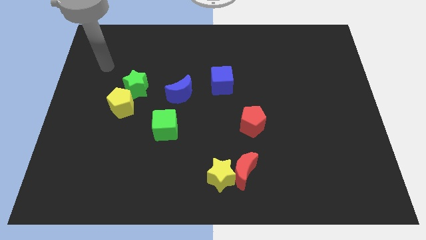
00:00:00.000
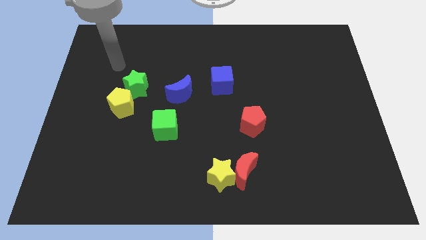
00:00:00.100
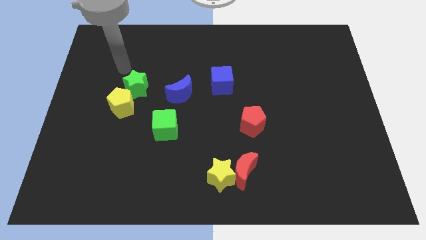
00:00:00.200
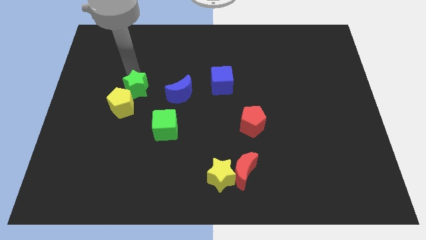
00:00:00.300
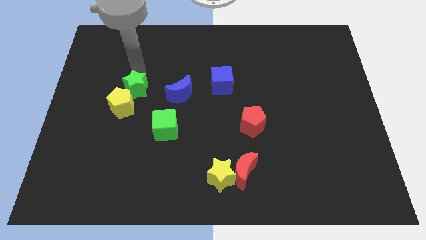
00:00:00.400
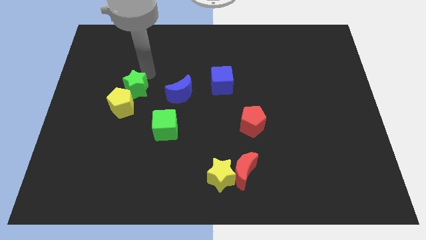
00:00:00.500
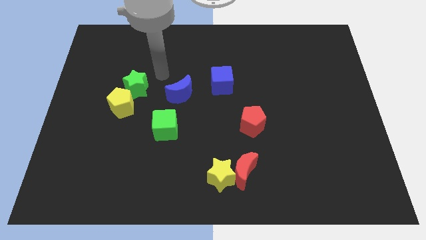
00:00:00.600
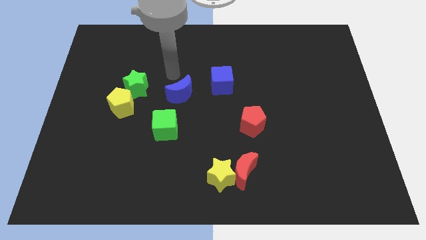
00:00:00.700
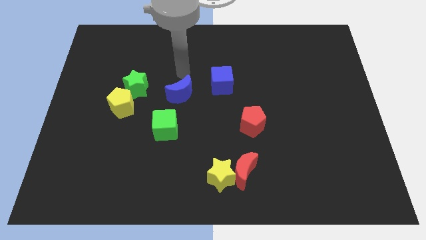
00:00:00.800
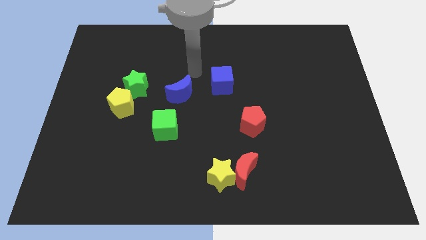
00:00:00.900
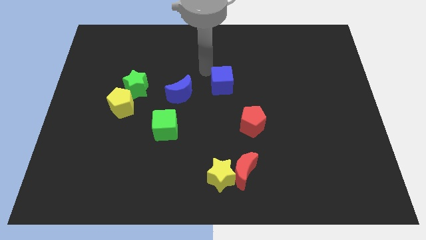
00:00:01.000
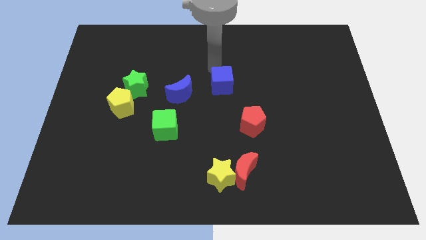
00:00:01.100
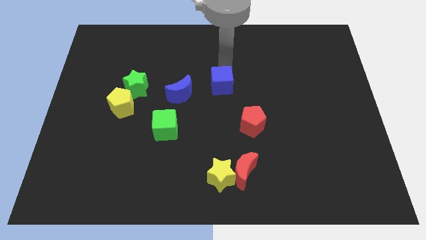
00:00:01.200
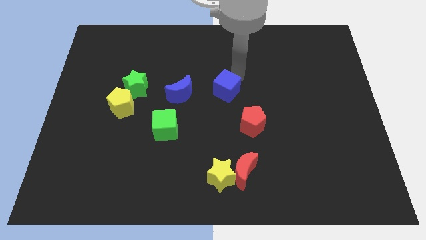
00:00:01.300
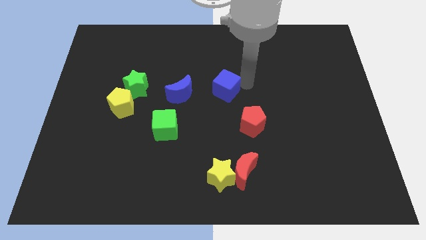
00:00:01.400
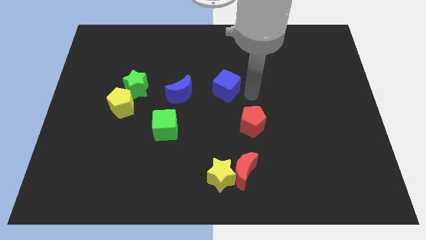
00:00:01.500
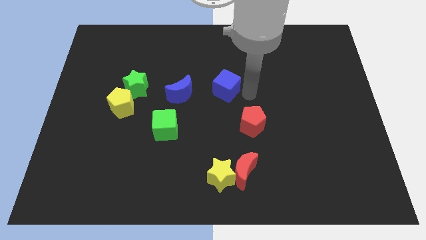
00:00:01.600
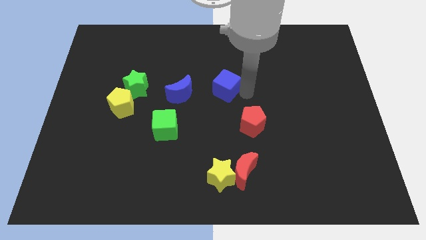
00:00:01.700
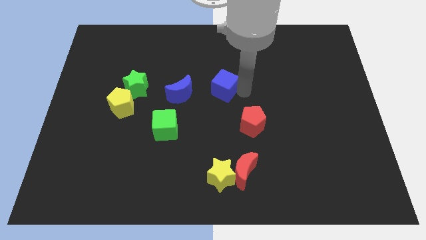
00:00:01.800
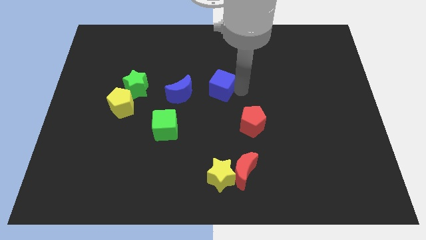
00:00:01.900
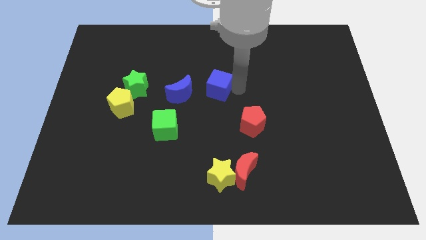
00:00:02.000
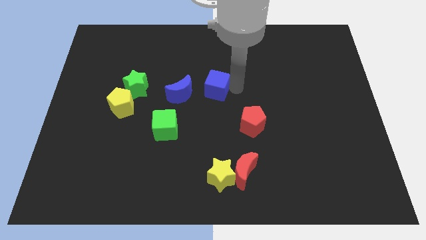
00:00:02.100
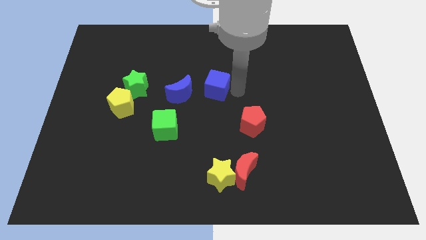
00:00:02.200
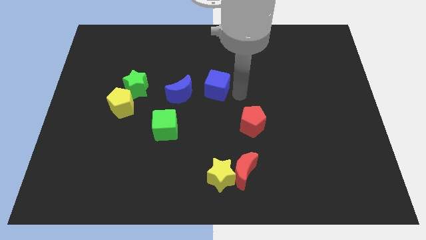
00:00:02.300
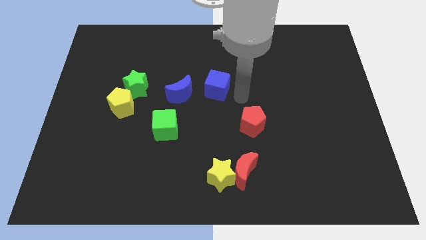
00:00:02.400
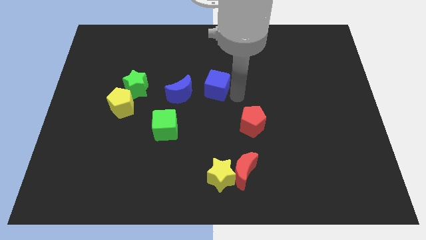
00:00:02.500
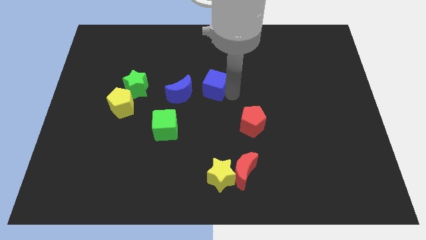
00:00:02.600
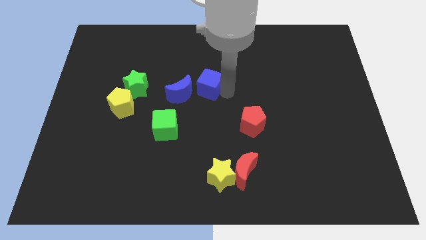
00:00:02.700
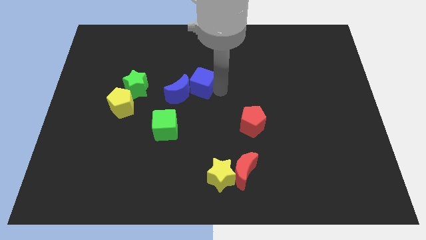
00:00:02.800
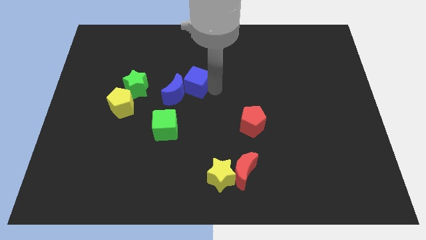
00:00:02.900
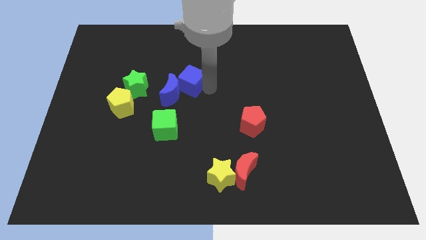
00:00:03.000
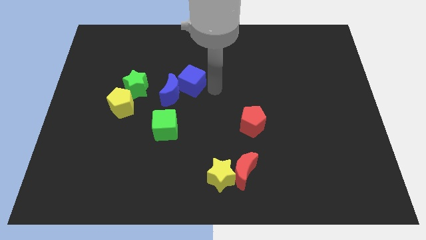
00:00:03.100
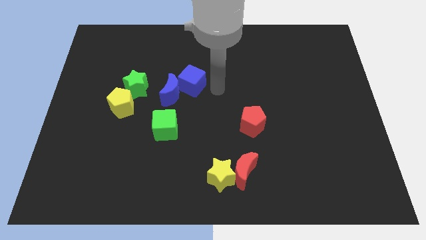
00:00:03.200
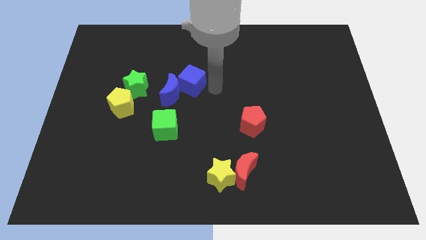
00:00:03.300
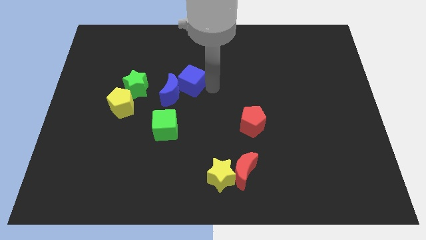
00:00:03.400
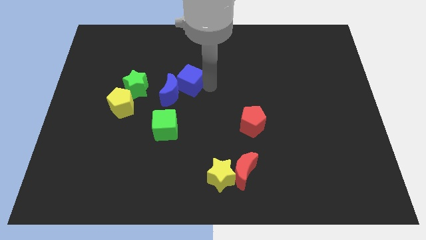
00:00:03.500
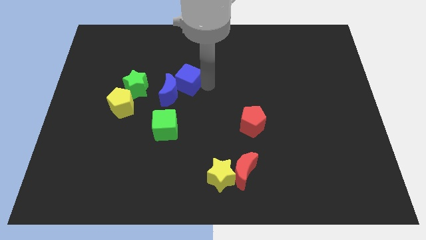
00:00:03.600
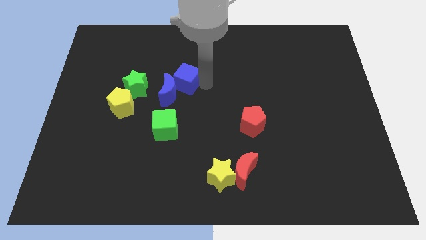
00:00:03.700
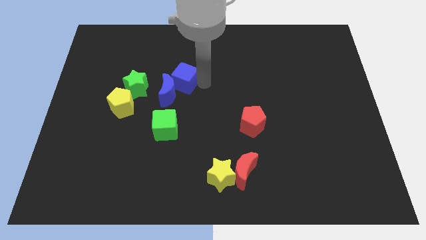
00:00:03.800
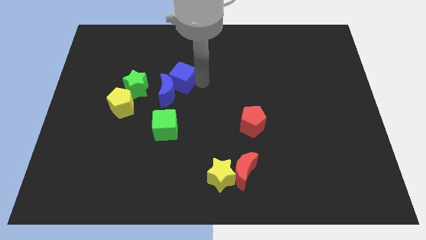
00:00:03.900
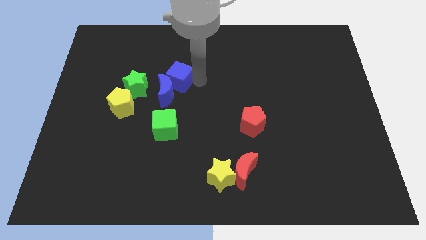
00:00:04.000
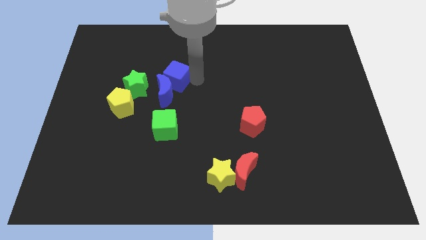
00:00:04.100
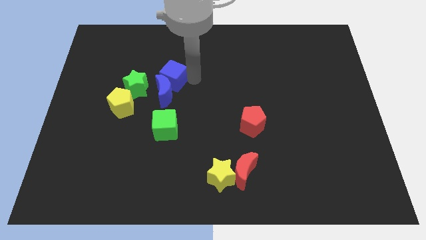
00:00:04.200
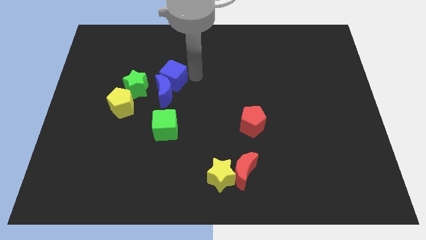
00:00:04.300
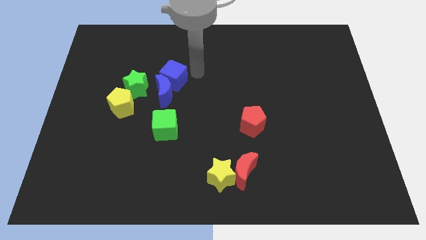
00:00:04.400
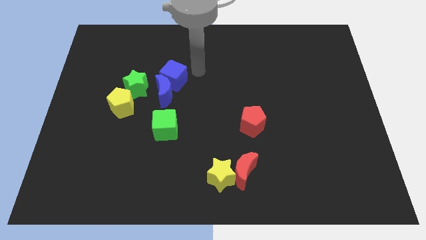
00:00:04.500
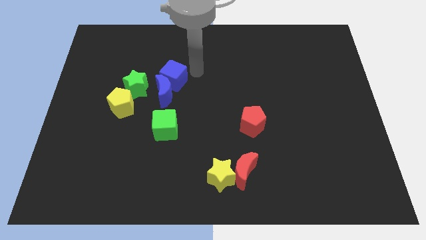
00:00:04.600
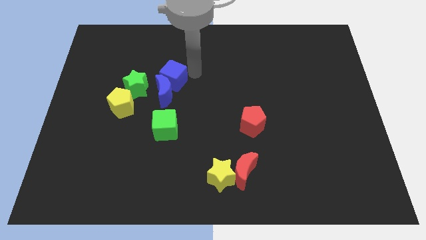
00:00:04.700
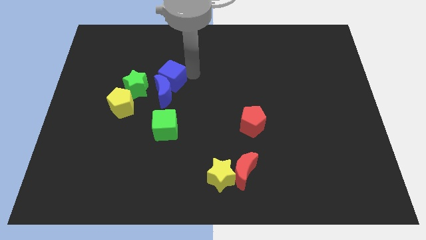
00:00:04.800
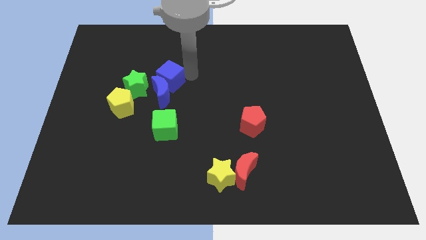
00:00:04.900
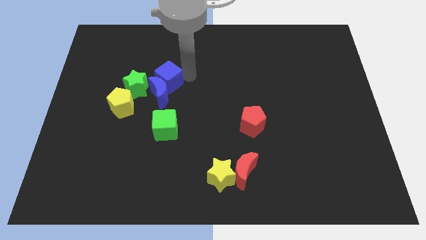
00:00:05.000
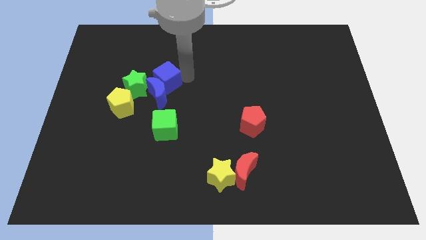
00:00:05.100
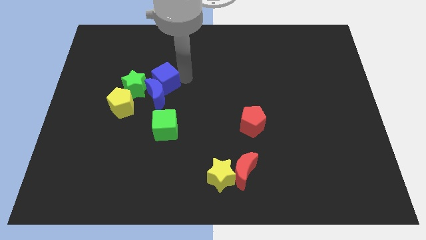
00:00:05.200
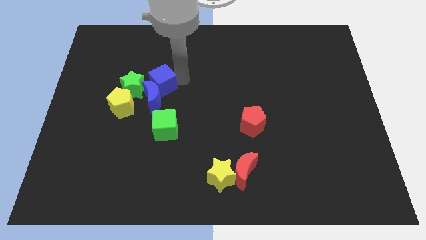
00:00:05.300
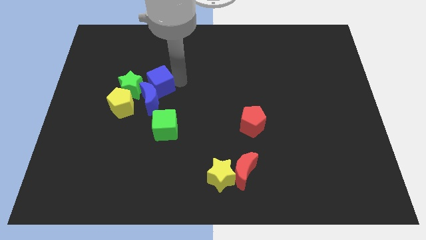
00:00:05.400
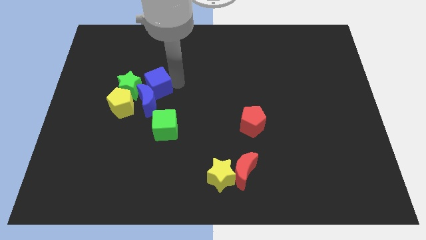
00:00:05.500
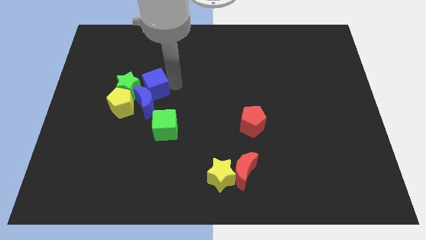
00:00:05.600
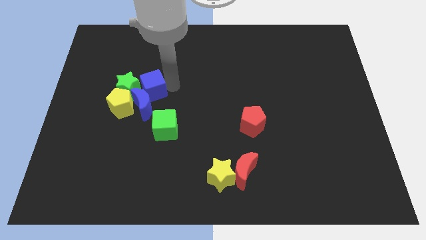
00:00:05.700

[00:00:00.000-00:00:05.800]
slide the blue cube next to the green star

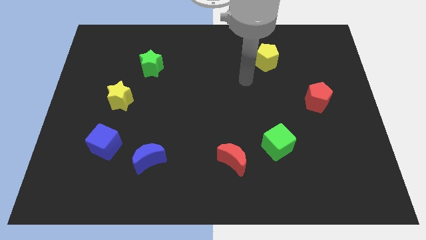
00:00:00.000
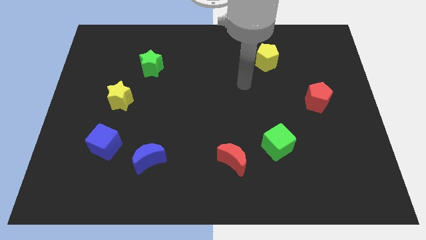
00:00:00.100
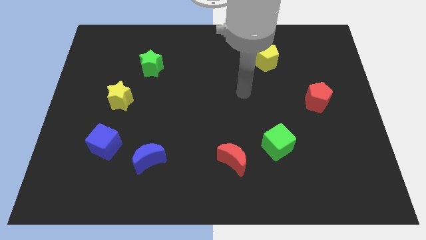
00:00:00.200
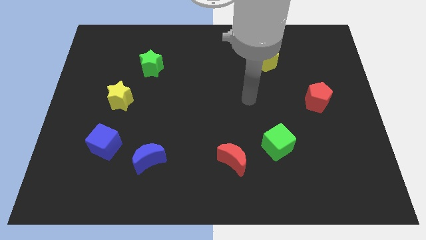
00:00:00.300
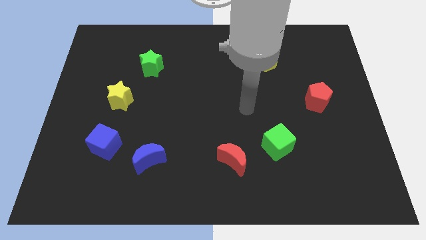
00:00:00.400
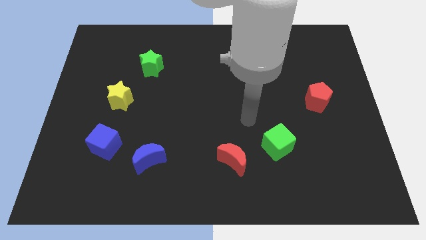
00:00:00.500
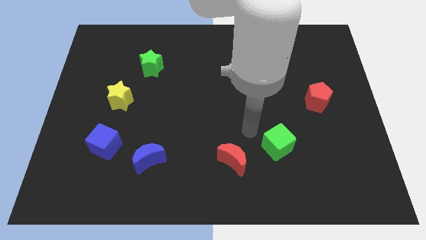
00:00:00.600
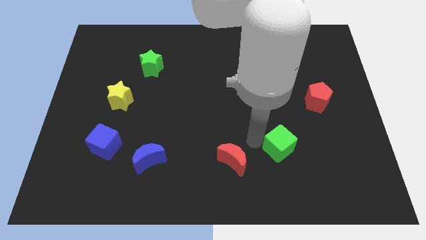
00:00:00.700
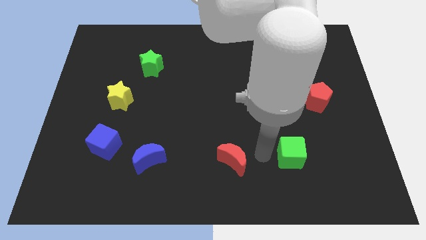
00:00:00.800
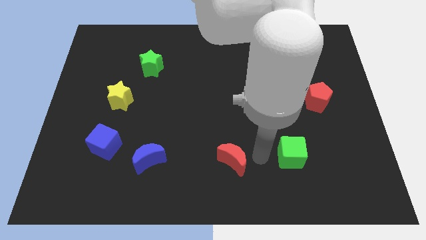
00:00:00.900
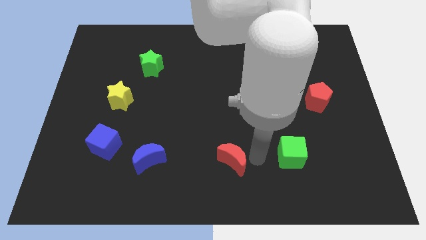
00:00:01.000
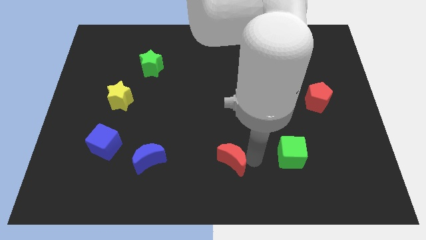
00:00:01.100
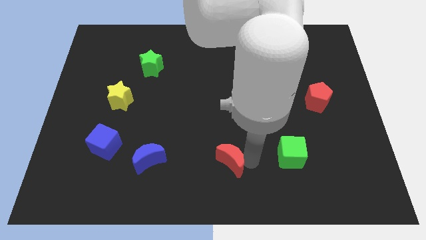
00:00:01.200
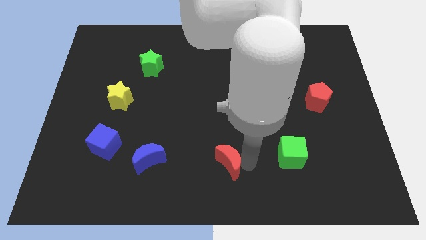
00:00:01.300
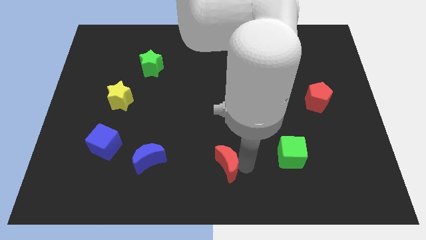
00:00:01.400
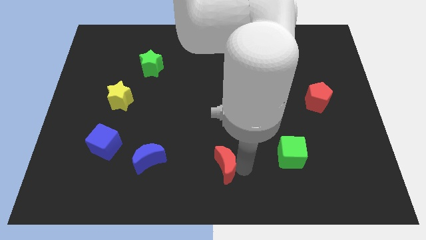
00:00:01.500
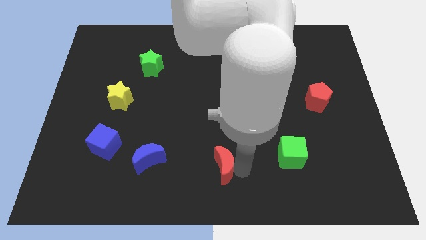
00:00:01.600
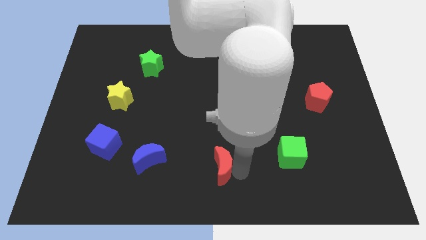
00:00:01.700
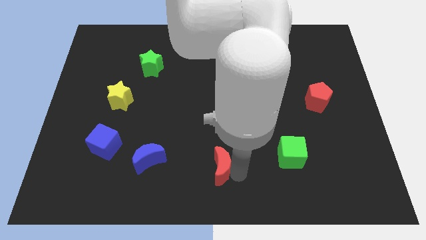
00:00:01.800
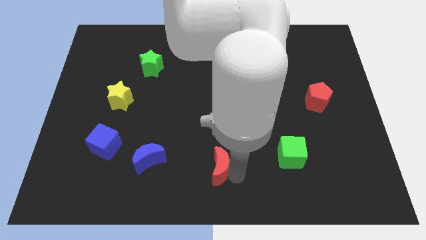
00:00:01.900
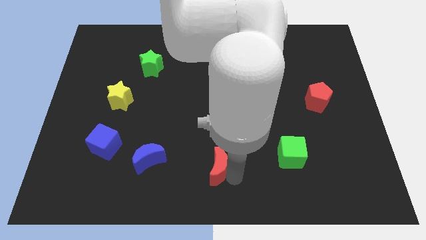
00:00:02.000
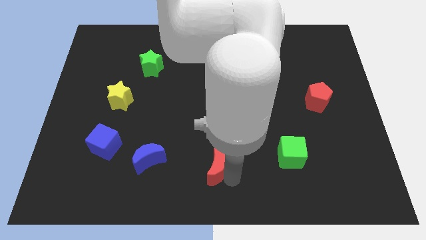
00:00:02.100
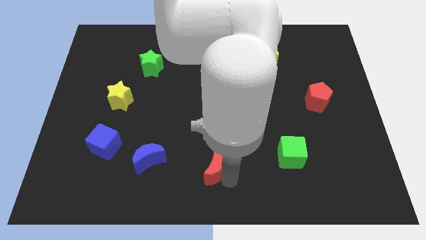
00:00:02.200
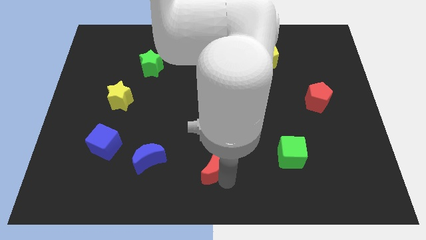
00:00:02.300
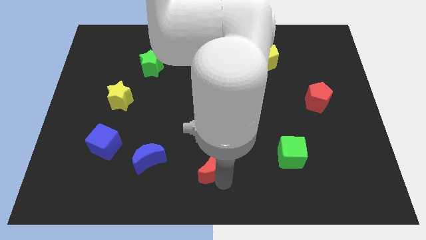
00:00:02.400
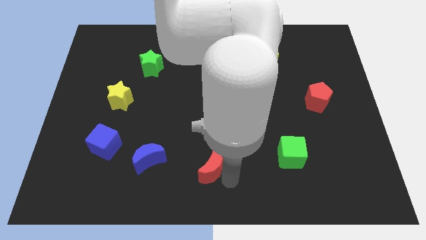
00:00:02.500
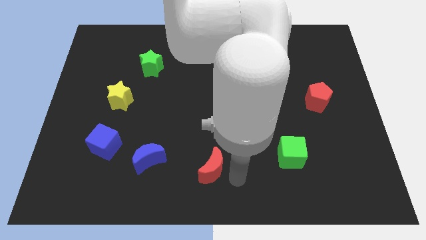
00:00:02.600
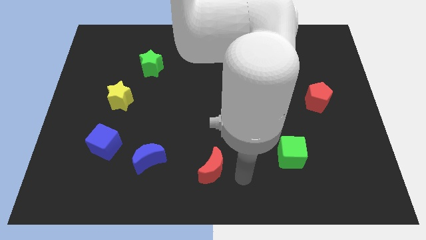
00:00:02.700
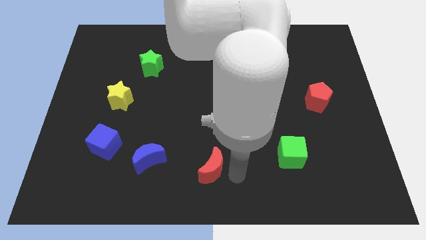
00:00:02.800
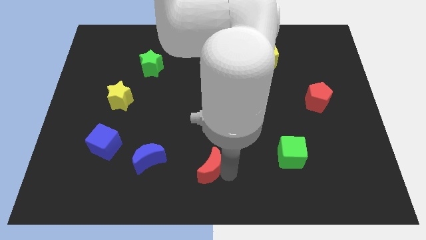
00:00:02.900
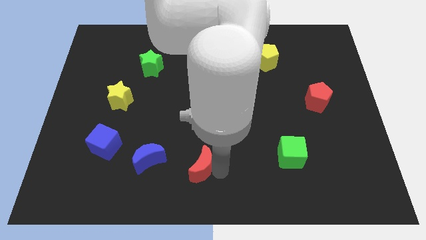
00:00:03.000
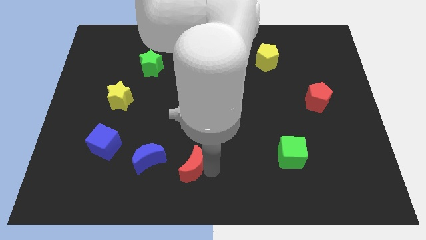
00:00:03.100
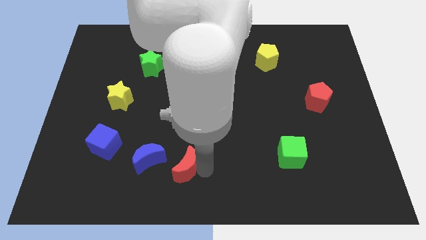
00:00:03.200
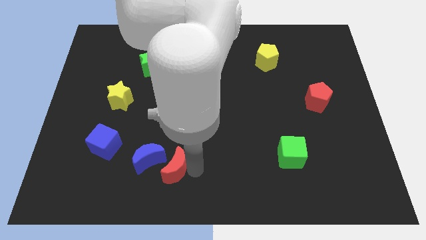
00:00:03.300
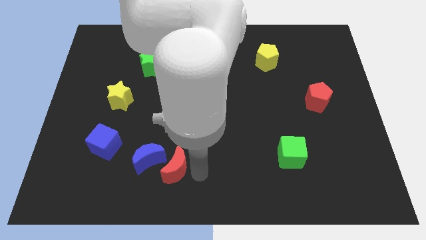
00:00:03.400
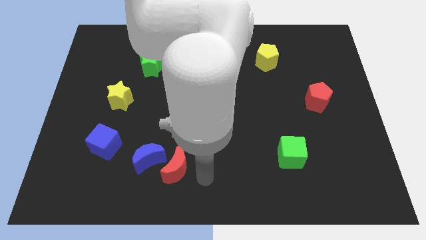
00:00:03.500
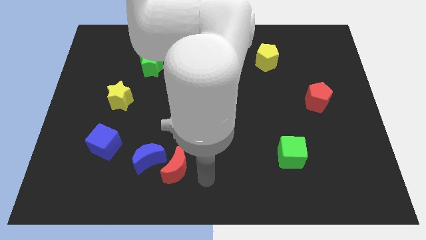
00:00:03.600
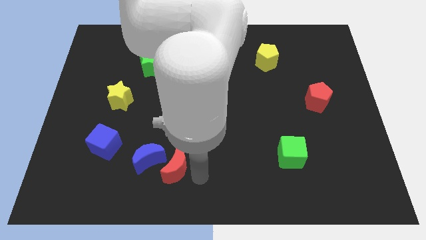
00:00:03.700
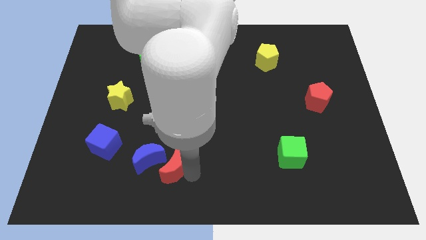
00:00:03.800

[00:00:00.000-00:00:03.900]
slide the red moon close to the blue moon
